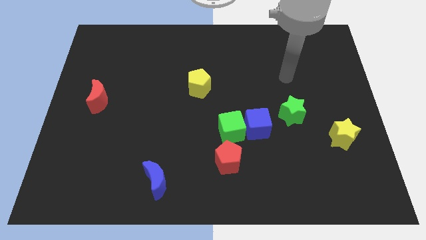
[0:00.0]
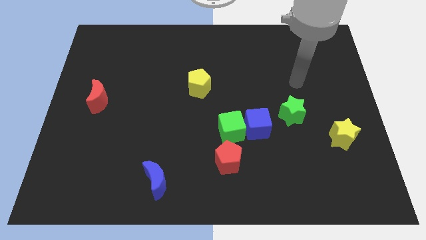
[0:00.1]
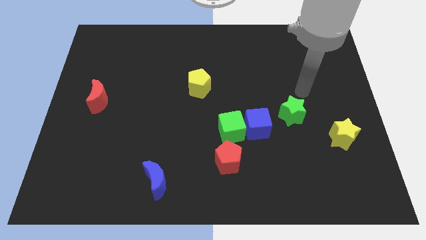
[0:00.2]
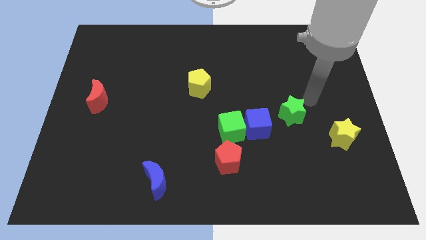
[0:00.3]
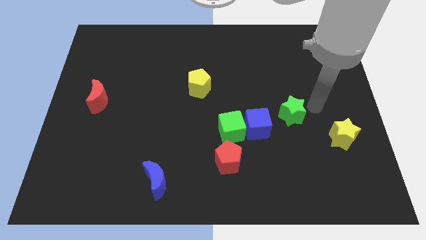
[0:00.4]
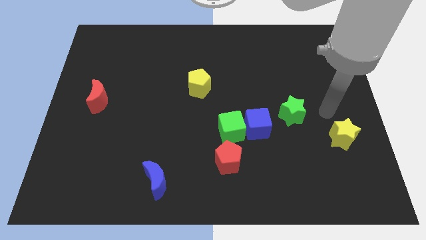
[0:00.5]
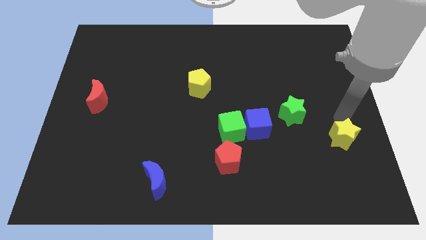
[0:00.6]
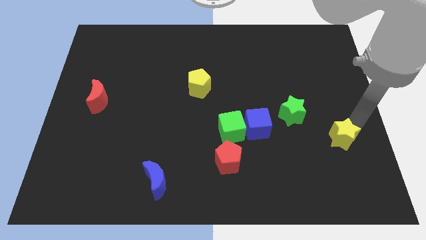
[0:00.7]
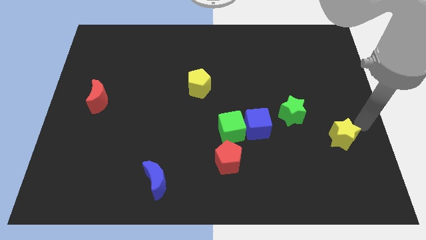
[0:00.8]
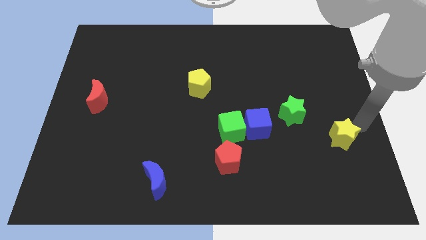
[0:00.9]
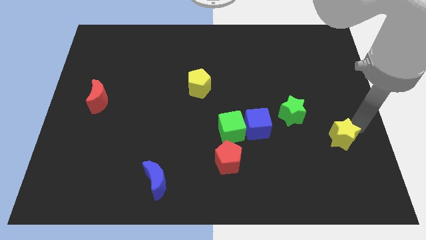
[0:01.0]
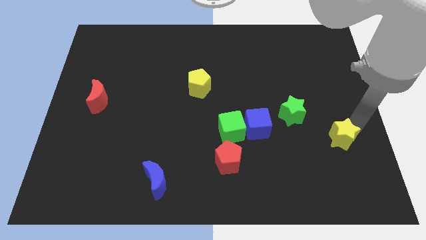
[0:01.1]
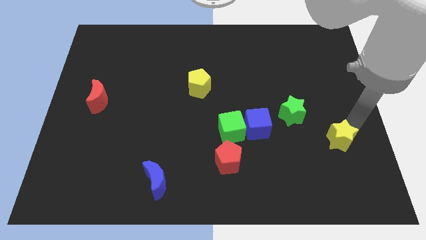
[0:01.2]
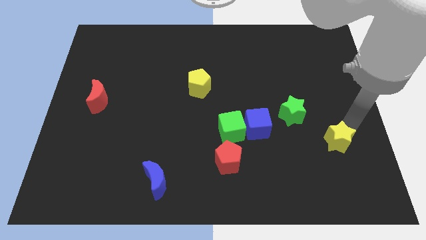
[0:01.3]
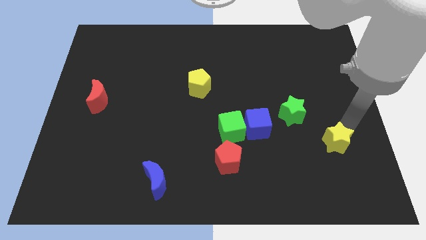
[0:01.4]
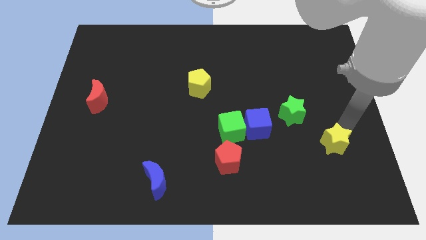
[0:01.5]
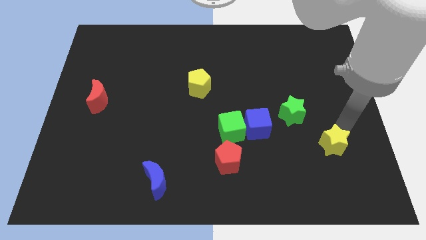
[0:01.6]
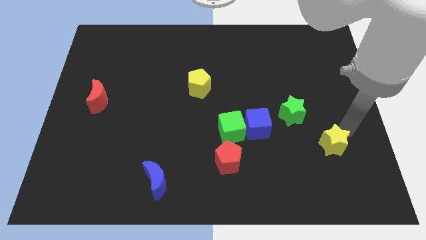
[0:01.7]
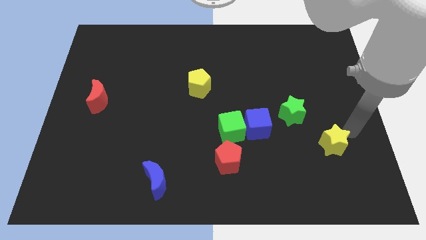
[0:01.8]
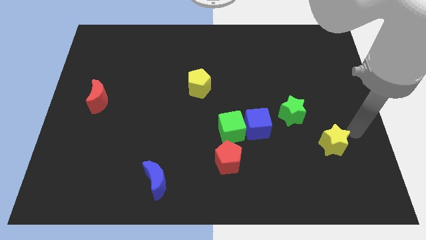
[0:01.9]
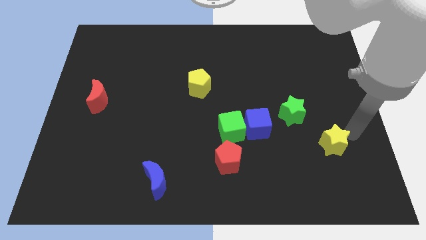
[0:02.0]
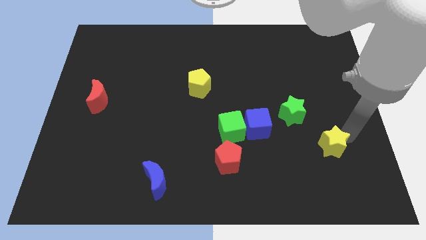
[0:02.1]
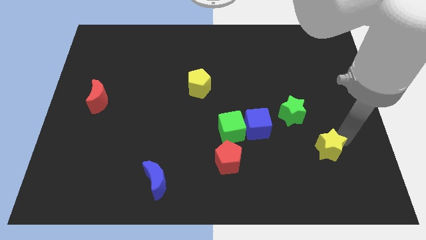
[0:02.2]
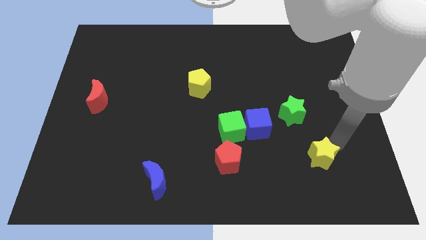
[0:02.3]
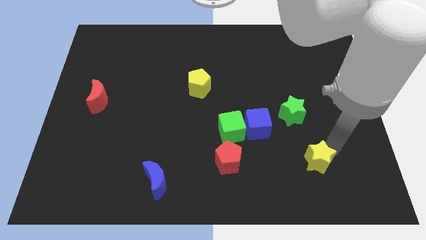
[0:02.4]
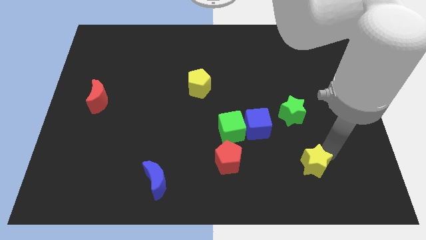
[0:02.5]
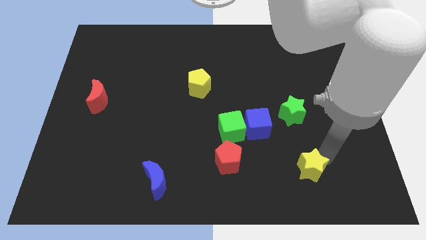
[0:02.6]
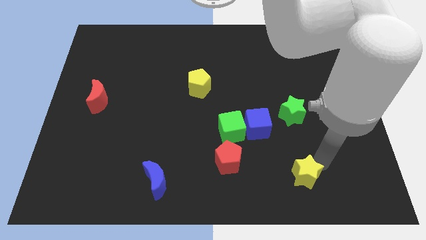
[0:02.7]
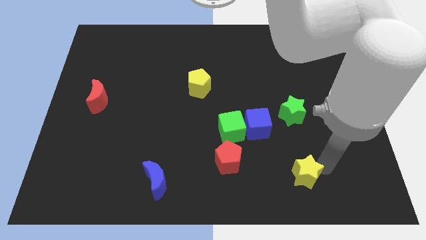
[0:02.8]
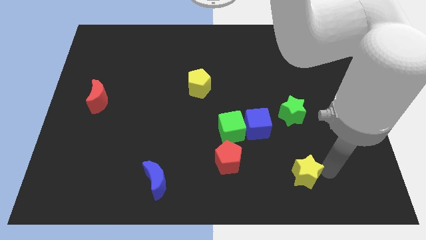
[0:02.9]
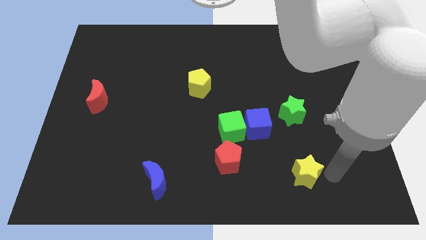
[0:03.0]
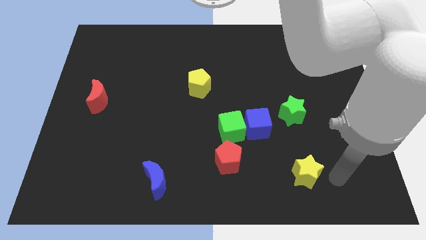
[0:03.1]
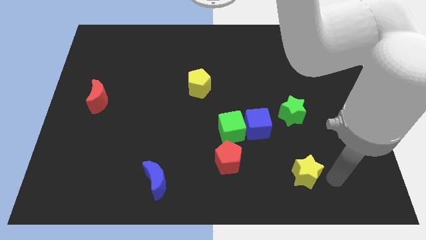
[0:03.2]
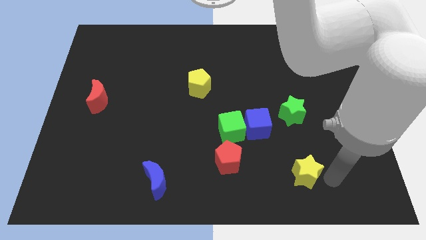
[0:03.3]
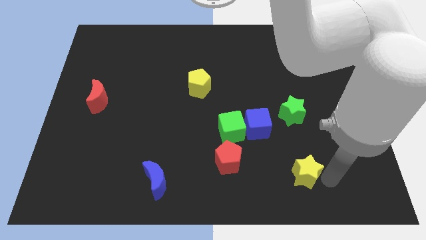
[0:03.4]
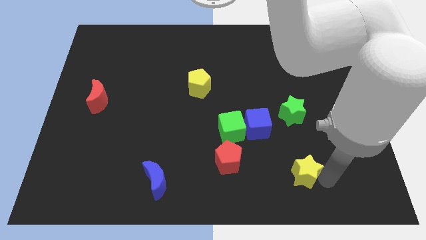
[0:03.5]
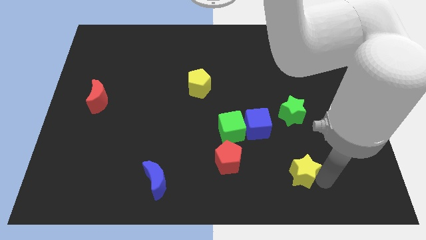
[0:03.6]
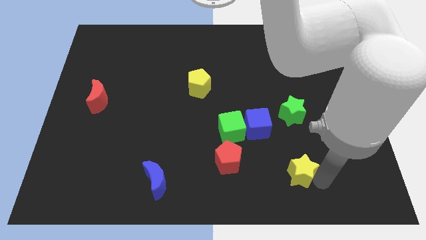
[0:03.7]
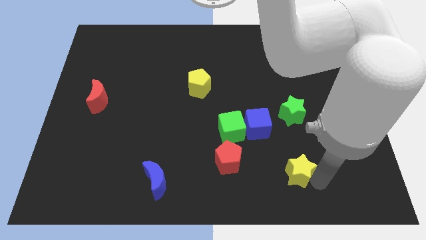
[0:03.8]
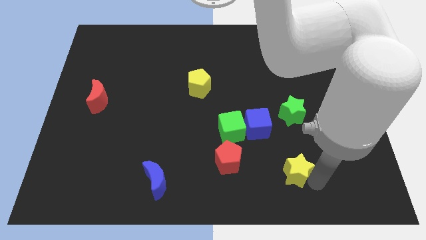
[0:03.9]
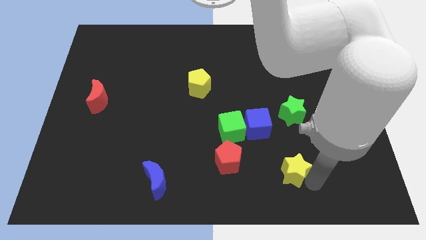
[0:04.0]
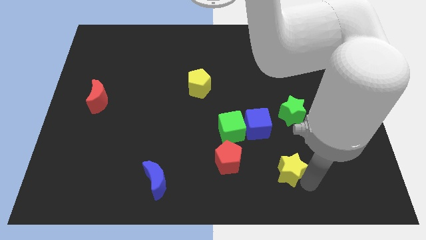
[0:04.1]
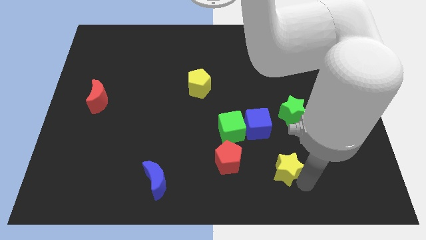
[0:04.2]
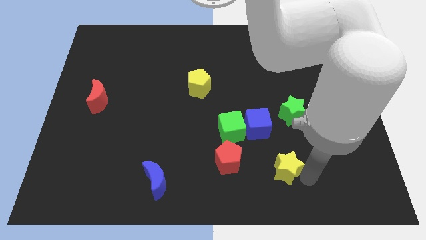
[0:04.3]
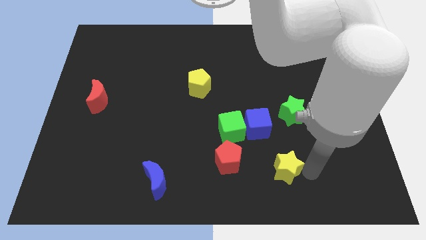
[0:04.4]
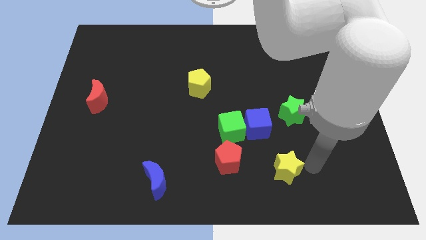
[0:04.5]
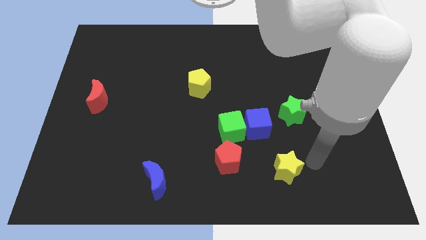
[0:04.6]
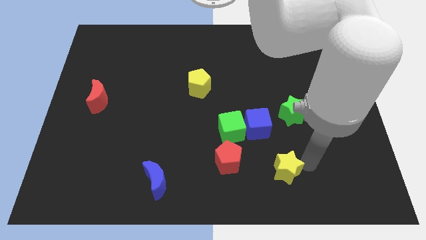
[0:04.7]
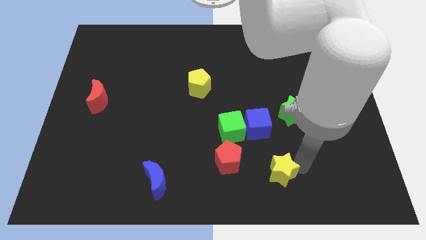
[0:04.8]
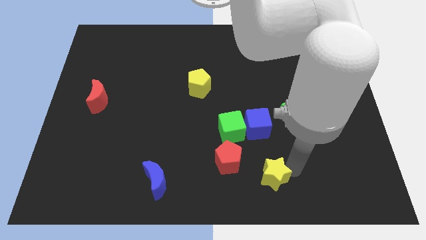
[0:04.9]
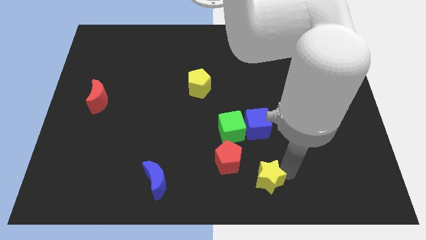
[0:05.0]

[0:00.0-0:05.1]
put the yellow star to the bottom side

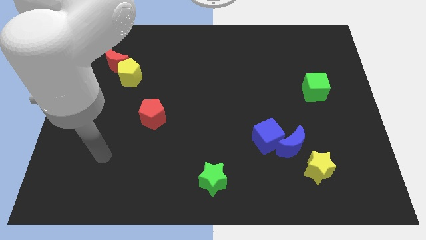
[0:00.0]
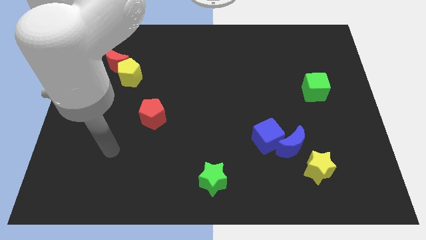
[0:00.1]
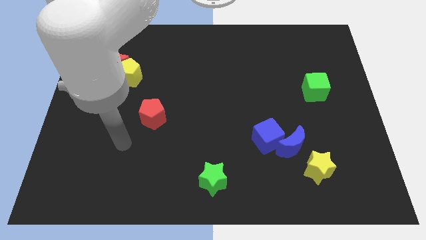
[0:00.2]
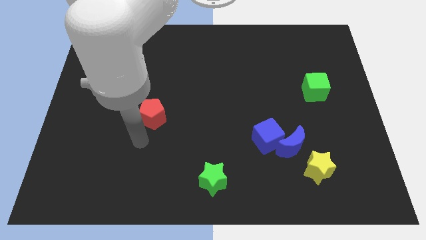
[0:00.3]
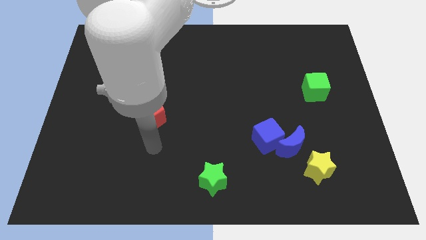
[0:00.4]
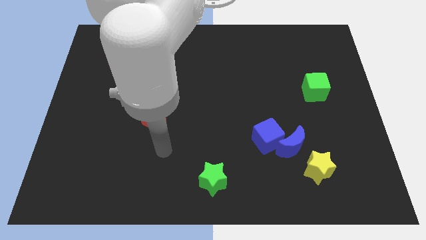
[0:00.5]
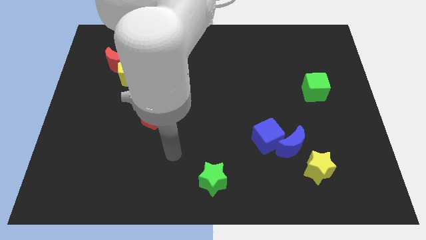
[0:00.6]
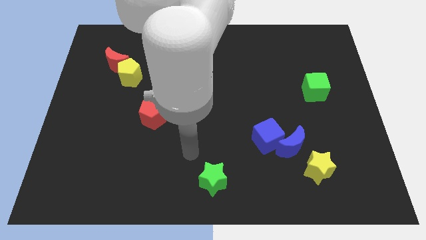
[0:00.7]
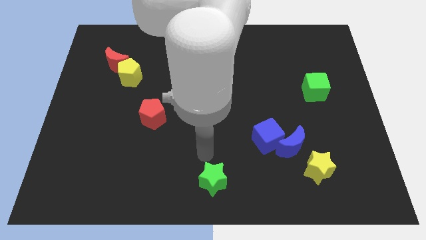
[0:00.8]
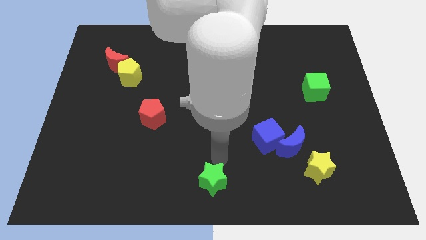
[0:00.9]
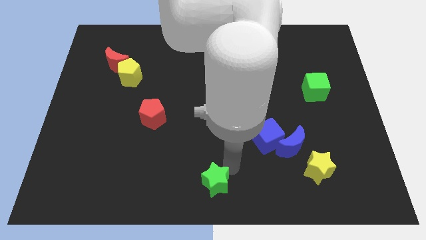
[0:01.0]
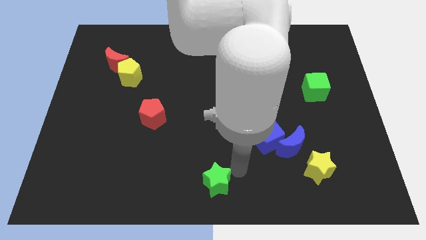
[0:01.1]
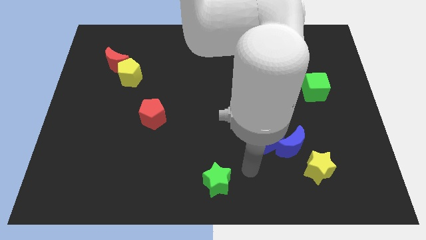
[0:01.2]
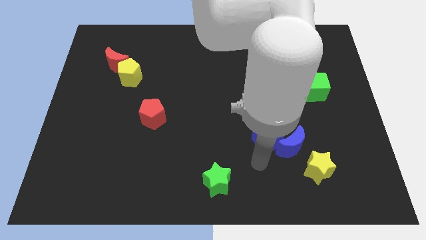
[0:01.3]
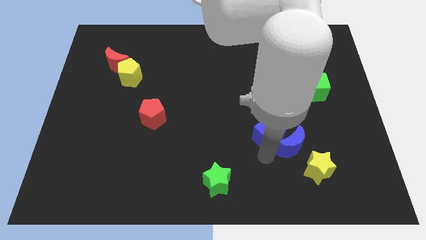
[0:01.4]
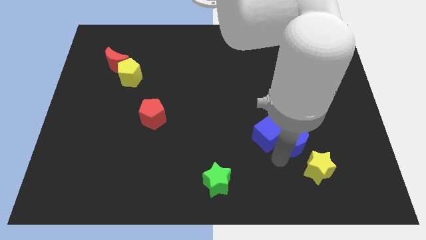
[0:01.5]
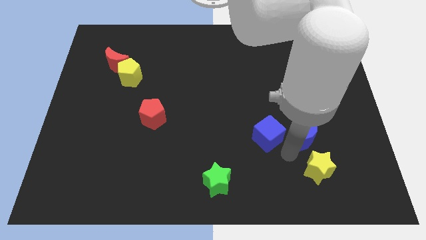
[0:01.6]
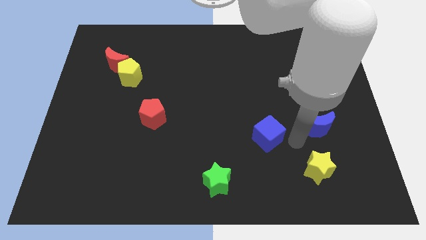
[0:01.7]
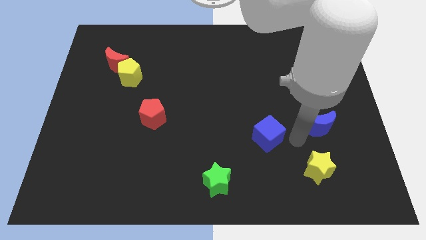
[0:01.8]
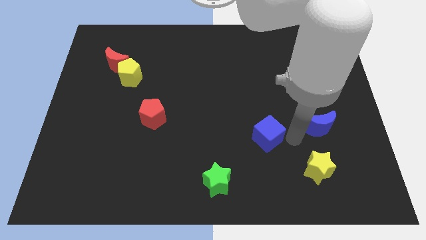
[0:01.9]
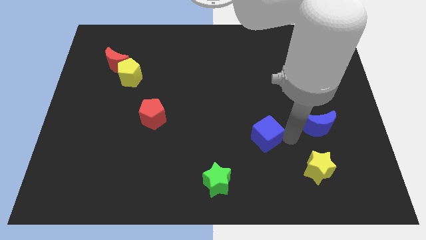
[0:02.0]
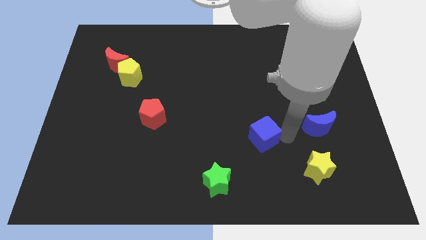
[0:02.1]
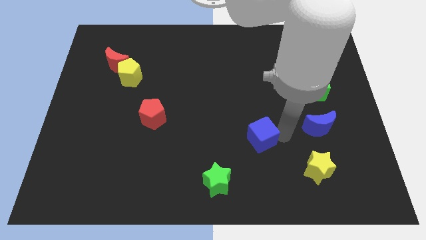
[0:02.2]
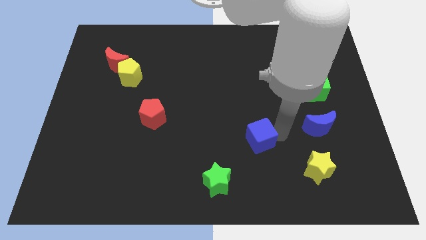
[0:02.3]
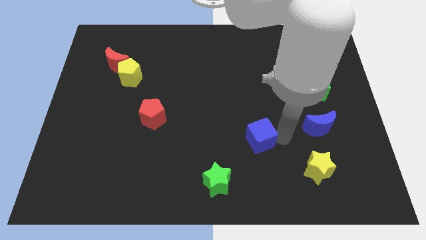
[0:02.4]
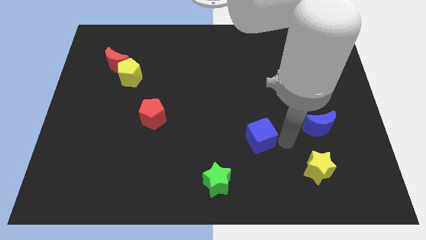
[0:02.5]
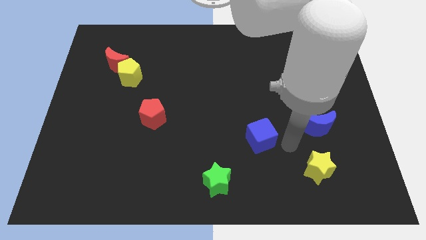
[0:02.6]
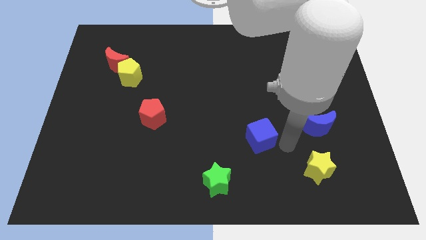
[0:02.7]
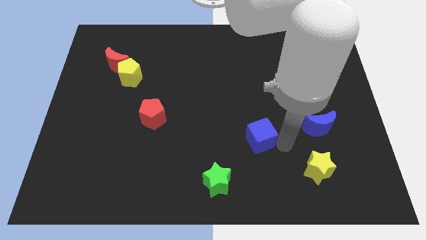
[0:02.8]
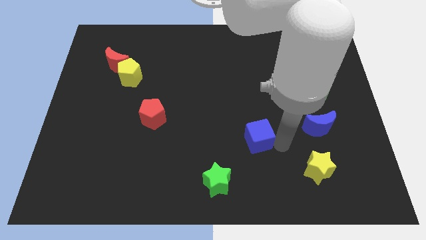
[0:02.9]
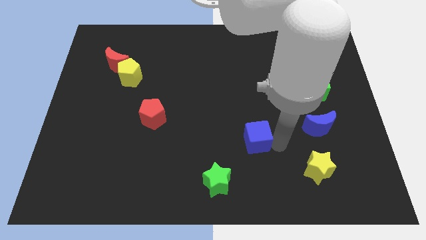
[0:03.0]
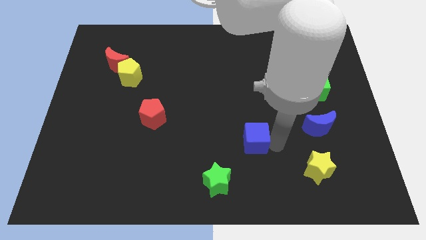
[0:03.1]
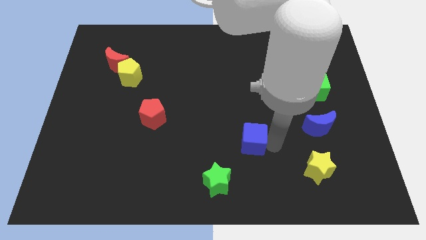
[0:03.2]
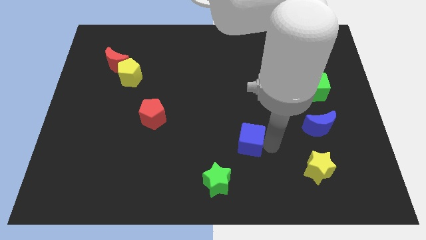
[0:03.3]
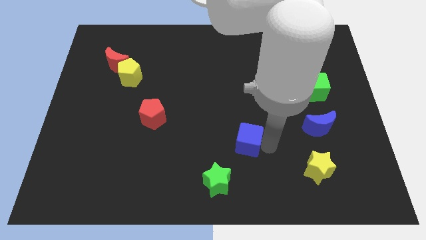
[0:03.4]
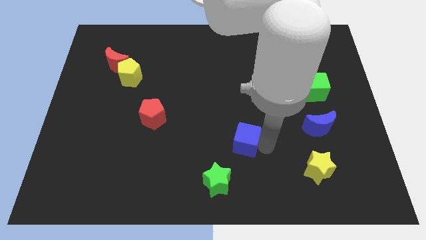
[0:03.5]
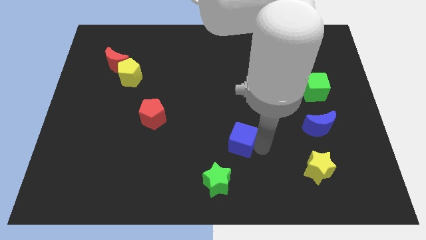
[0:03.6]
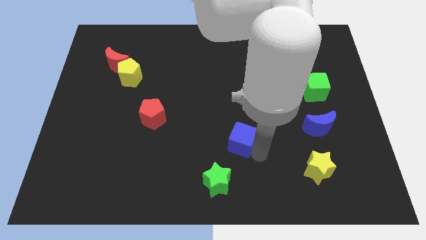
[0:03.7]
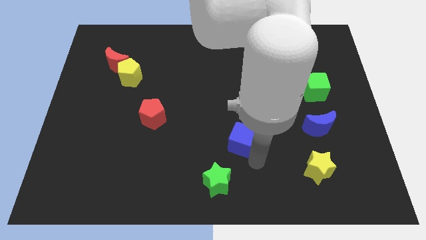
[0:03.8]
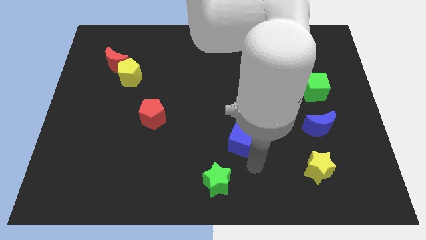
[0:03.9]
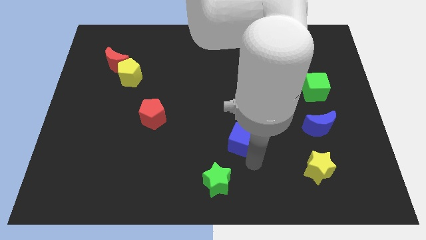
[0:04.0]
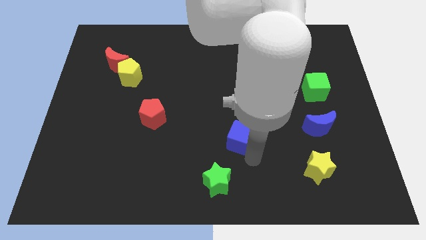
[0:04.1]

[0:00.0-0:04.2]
move the blue cube to the middle of the board
